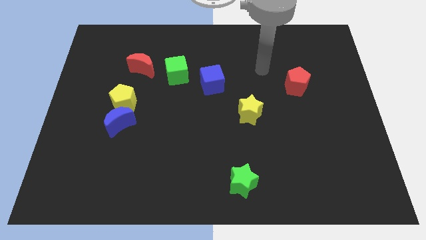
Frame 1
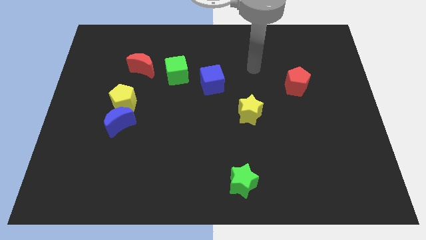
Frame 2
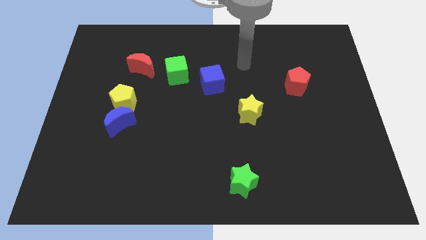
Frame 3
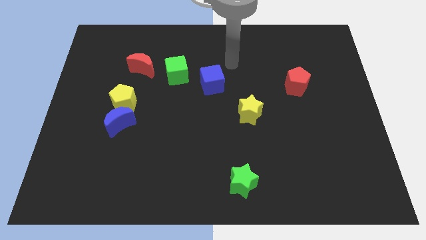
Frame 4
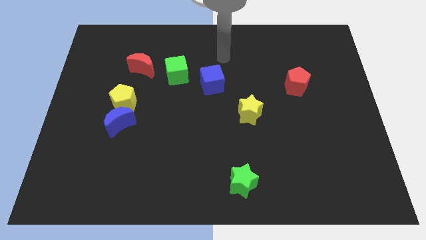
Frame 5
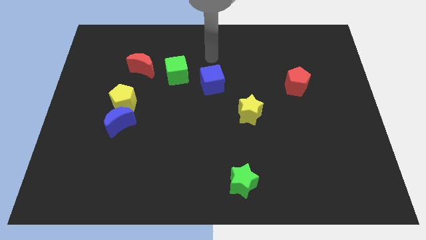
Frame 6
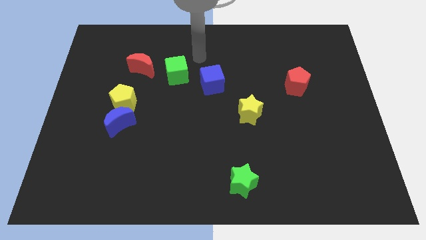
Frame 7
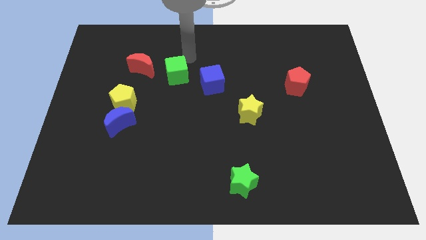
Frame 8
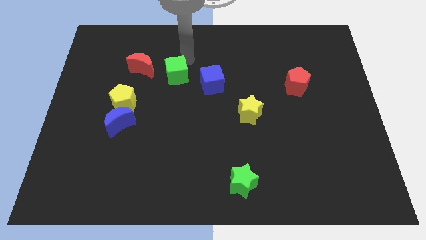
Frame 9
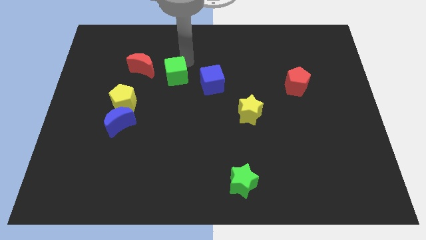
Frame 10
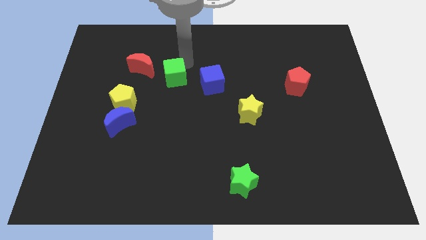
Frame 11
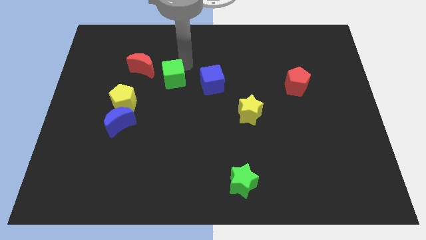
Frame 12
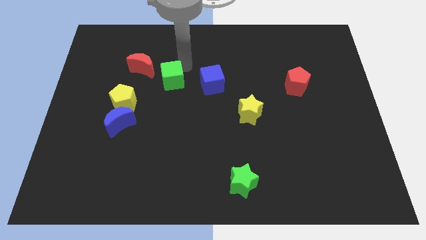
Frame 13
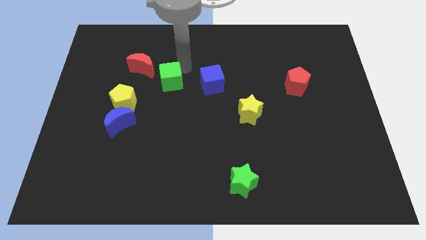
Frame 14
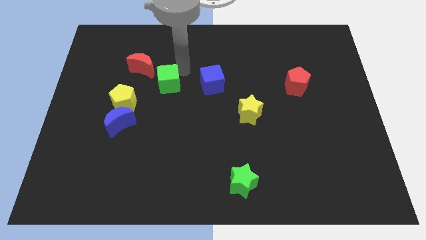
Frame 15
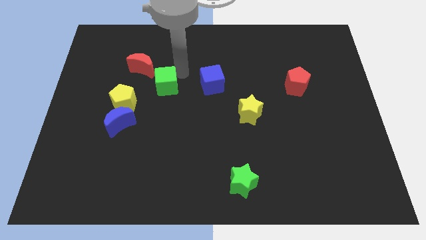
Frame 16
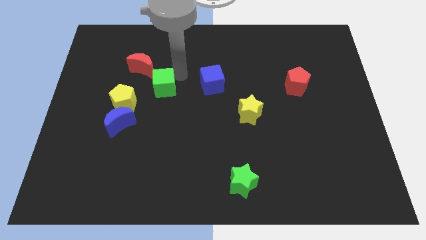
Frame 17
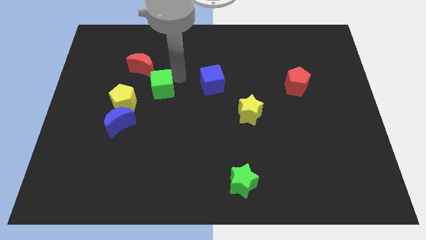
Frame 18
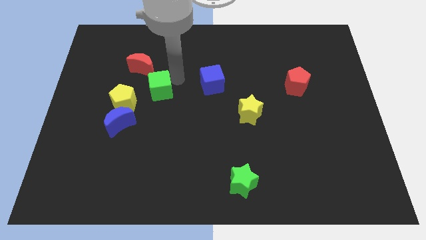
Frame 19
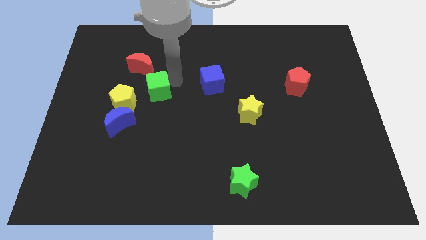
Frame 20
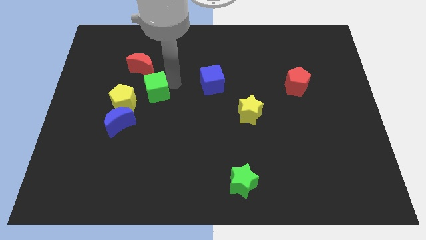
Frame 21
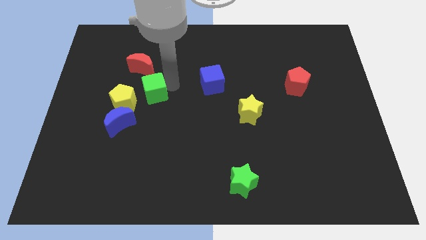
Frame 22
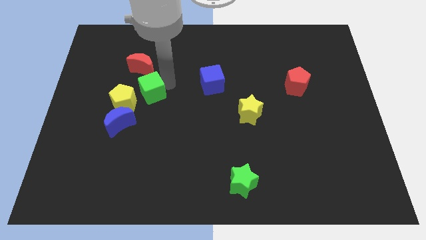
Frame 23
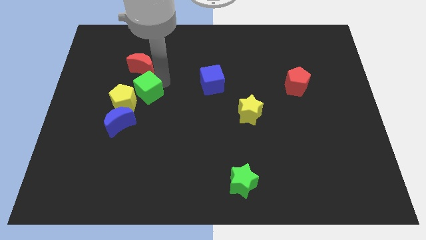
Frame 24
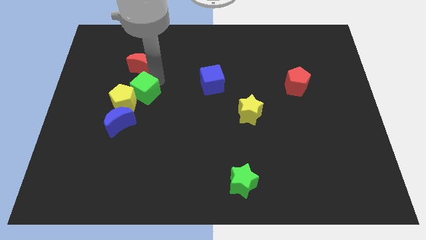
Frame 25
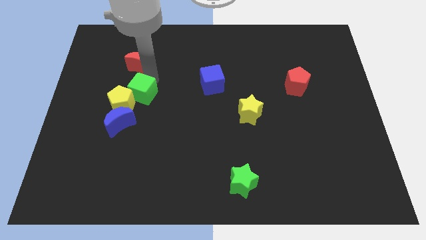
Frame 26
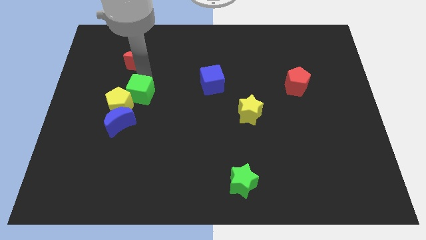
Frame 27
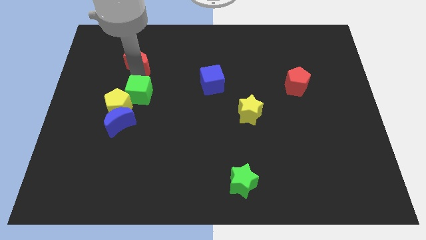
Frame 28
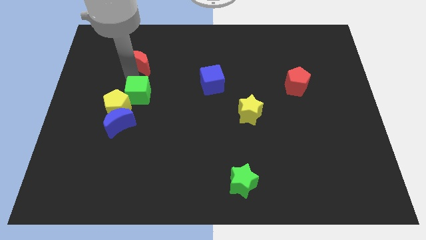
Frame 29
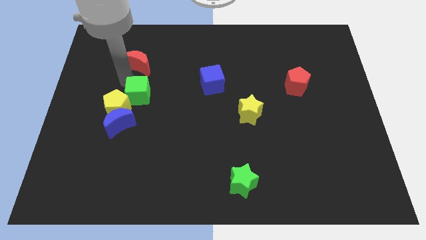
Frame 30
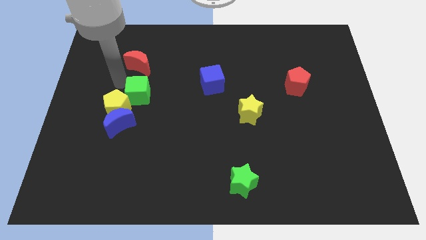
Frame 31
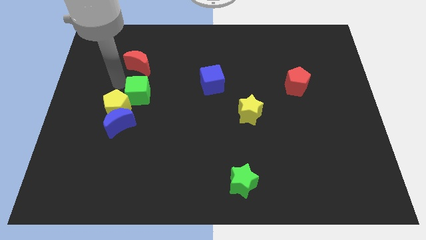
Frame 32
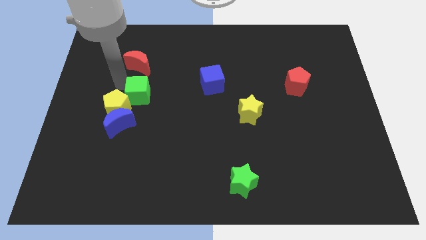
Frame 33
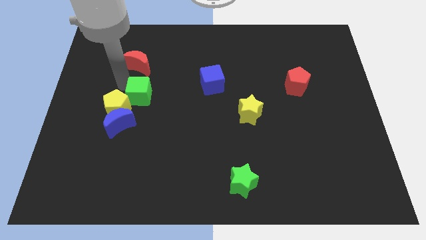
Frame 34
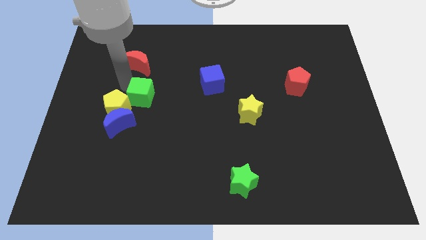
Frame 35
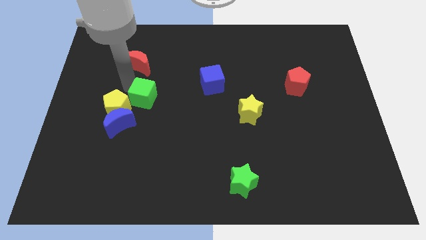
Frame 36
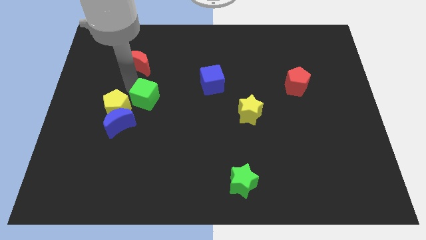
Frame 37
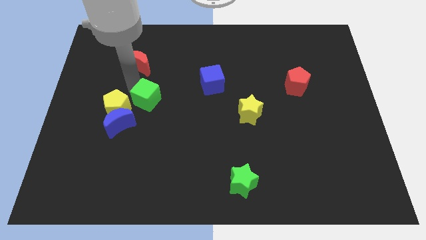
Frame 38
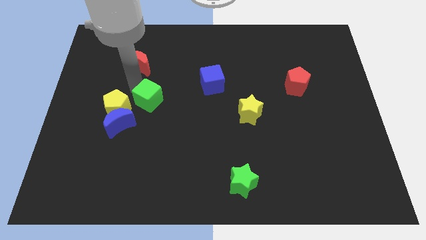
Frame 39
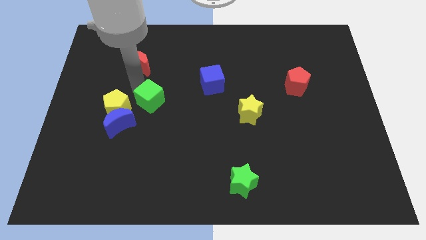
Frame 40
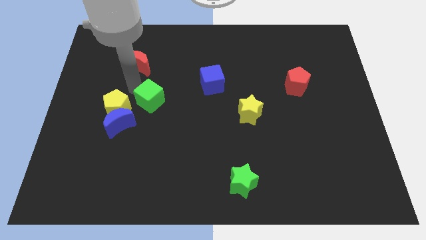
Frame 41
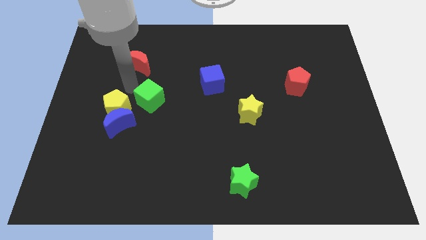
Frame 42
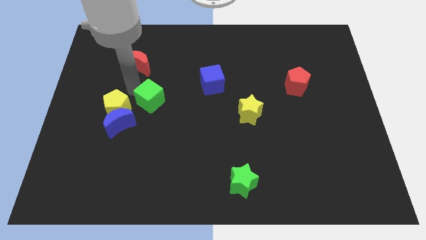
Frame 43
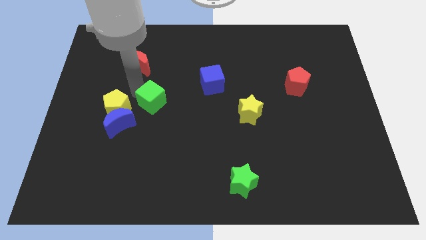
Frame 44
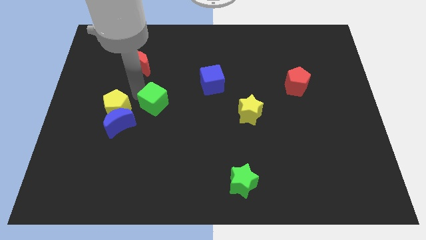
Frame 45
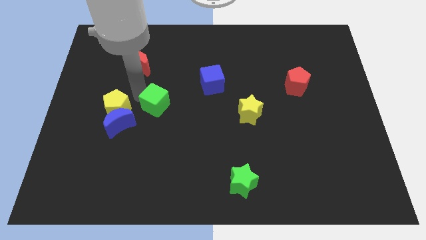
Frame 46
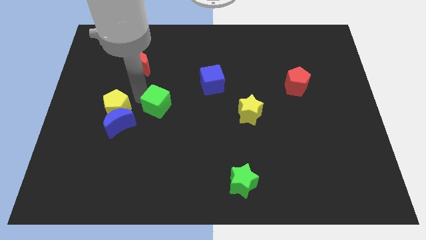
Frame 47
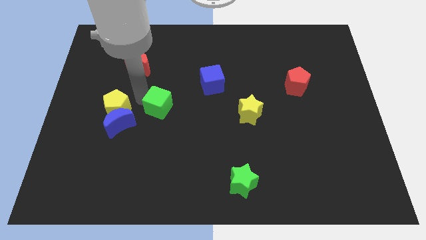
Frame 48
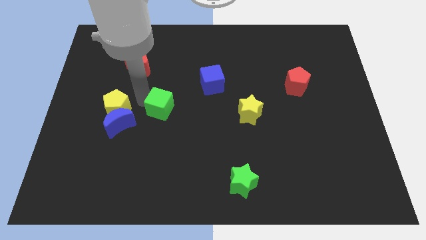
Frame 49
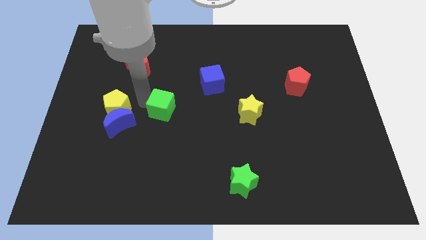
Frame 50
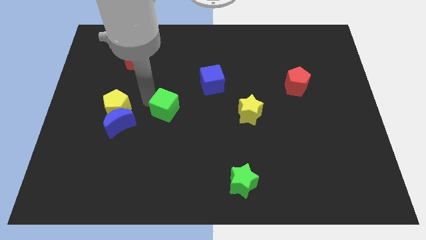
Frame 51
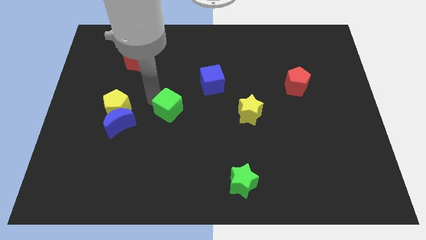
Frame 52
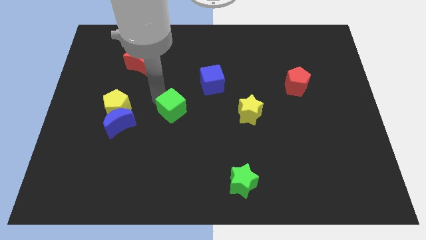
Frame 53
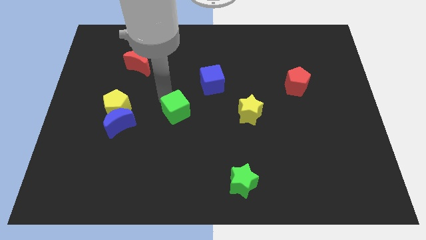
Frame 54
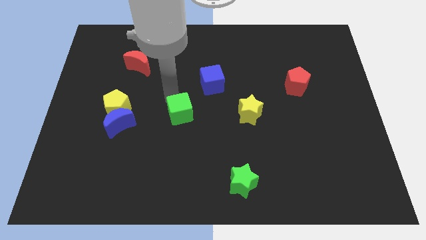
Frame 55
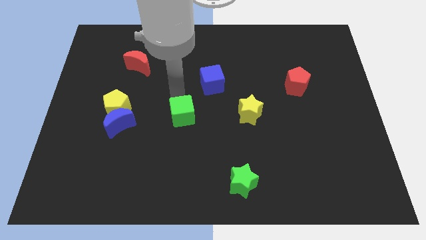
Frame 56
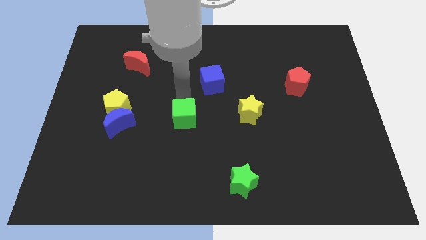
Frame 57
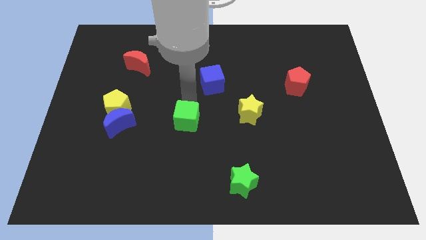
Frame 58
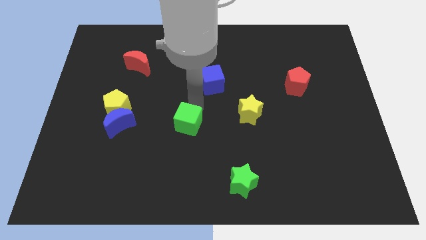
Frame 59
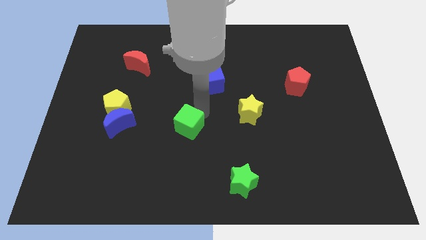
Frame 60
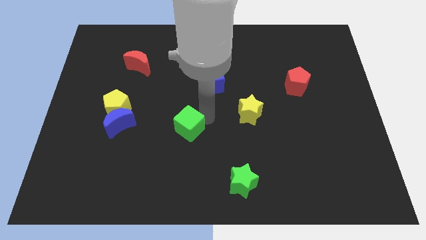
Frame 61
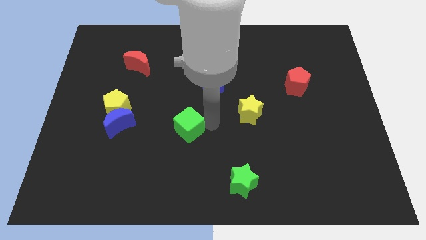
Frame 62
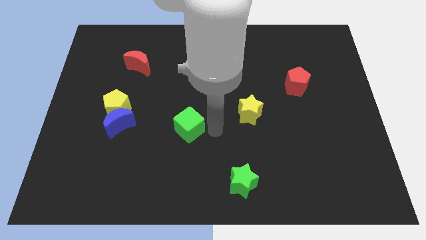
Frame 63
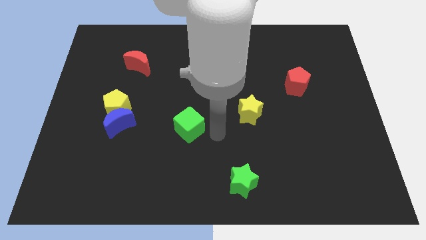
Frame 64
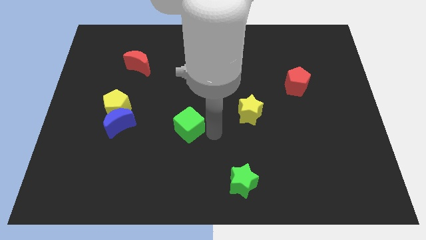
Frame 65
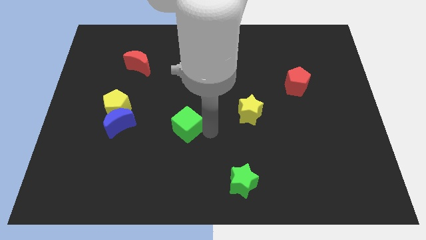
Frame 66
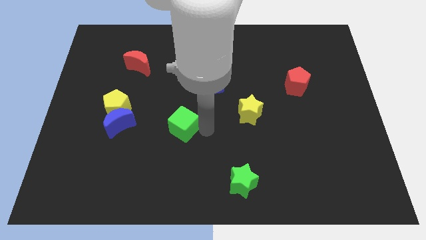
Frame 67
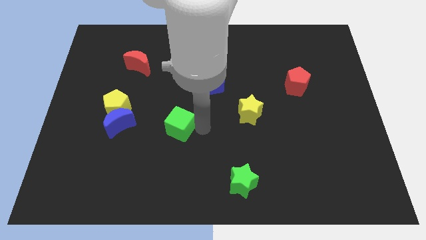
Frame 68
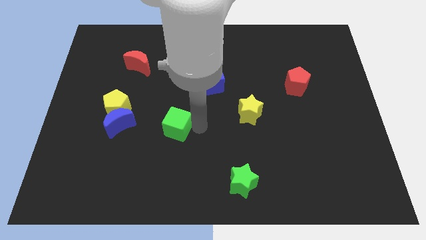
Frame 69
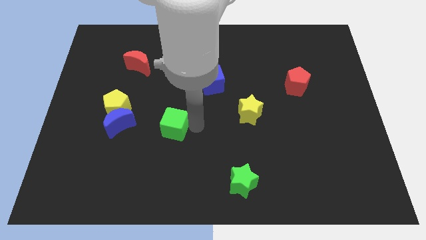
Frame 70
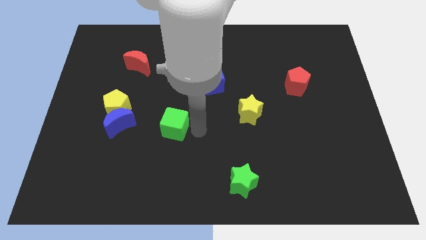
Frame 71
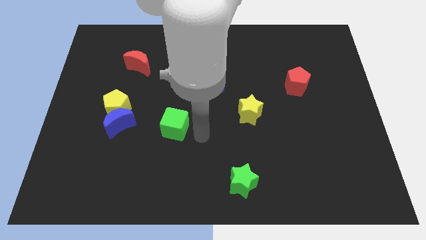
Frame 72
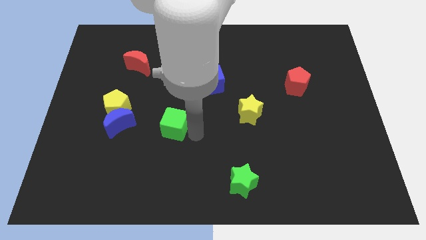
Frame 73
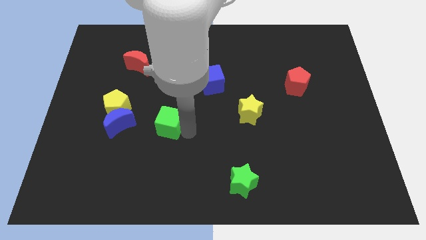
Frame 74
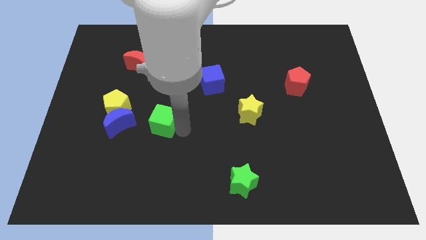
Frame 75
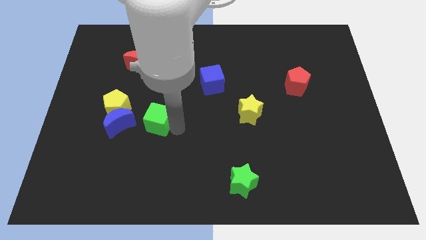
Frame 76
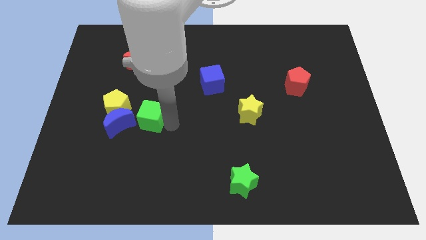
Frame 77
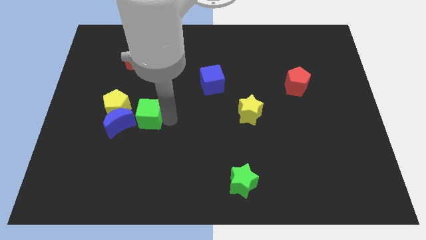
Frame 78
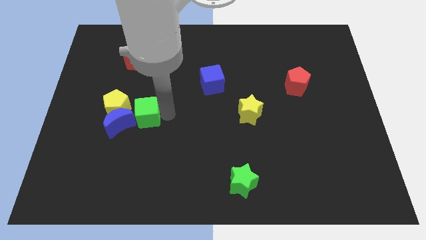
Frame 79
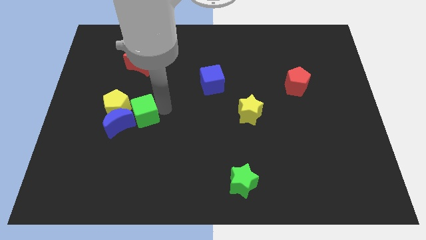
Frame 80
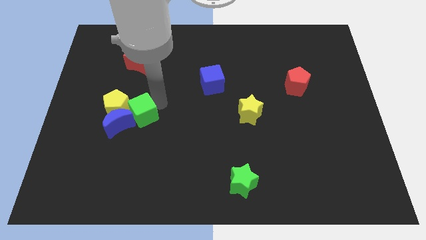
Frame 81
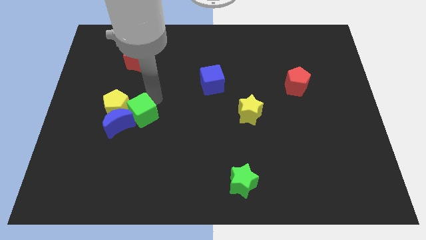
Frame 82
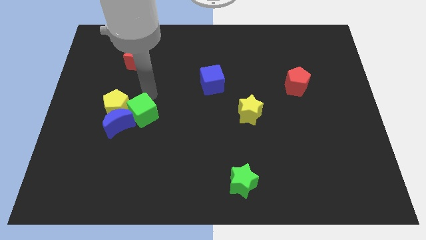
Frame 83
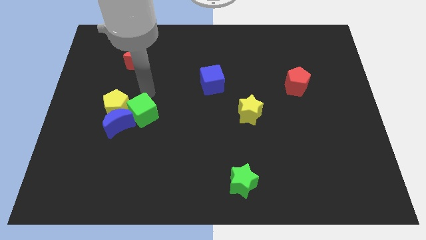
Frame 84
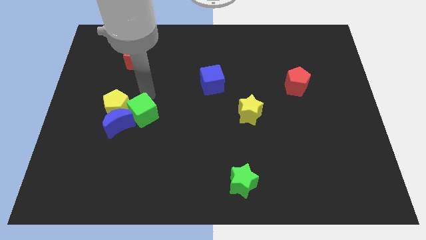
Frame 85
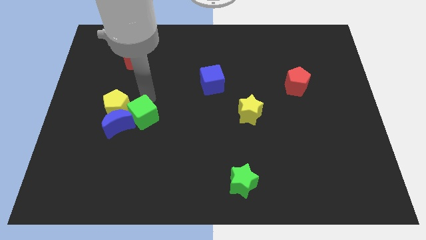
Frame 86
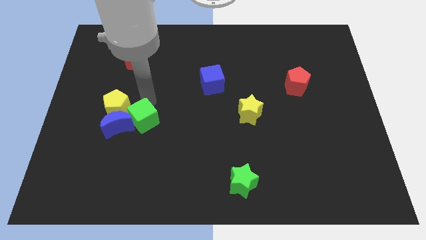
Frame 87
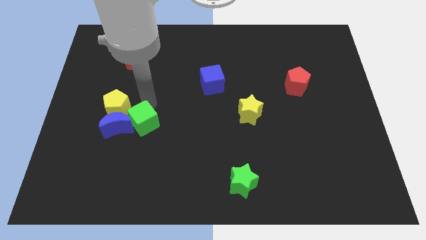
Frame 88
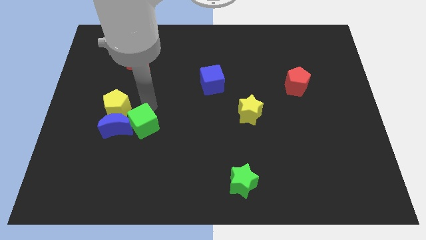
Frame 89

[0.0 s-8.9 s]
put the green cube to the bottom right of the blue moon
